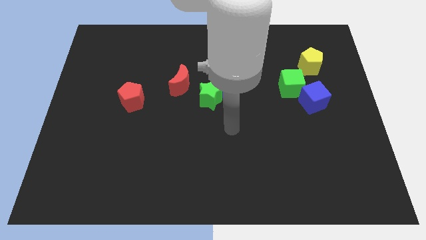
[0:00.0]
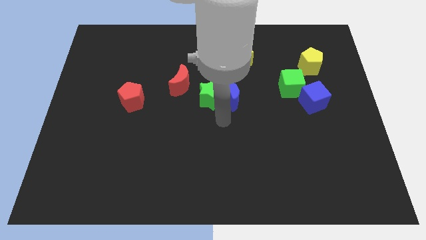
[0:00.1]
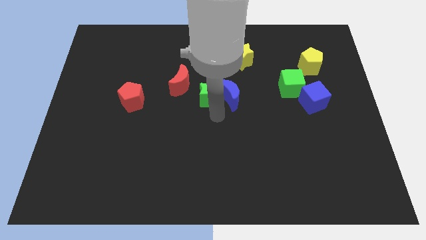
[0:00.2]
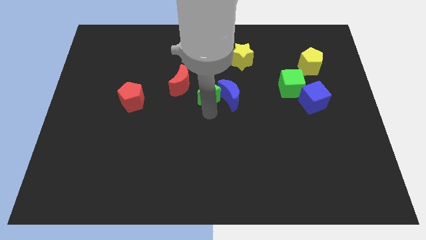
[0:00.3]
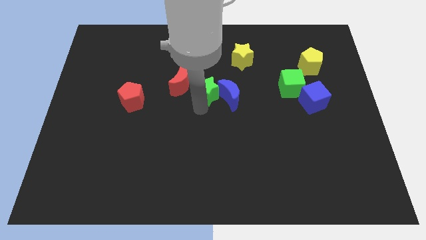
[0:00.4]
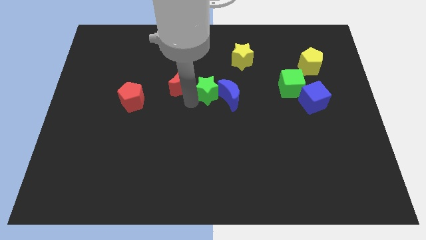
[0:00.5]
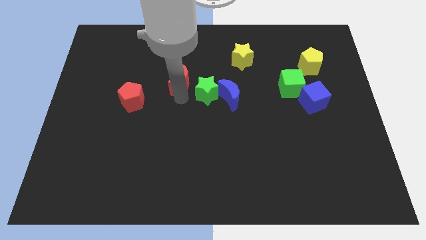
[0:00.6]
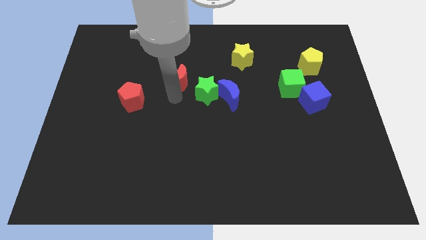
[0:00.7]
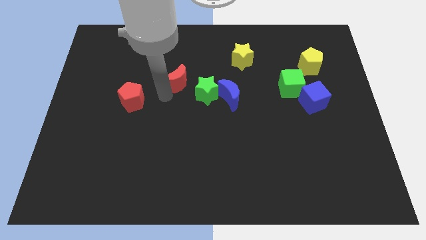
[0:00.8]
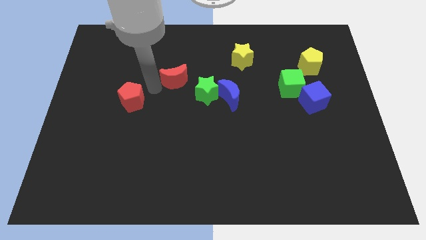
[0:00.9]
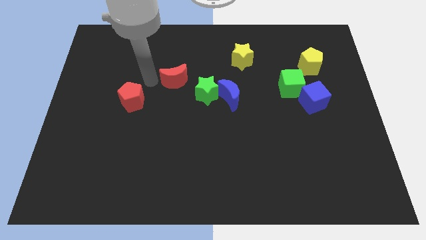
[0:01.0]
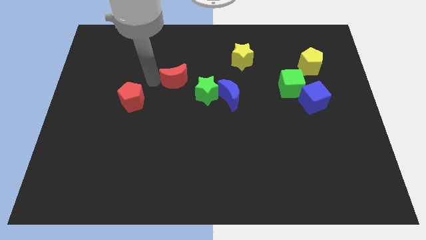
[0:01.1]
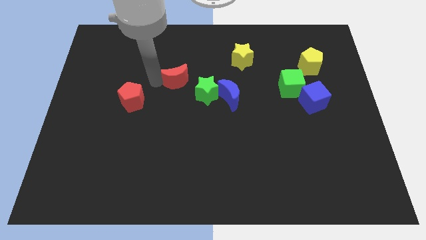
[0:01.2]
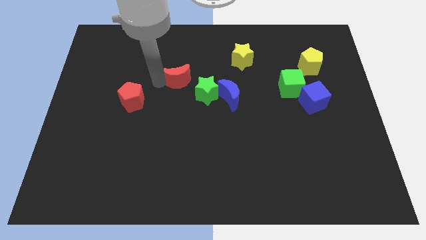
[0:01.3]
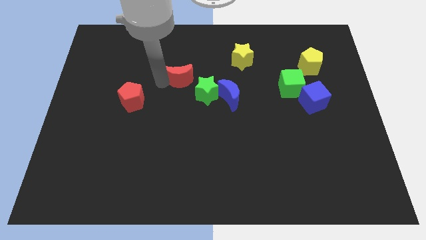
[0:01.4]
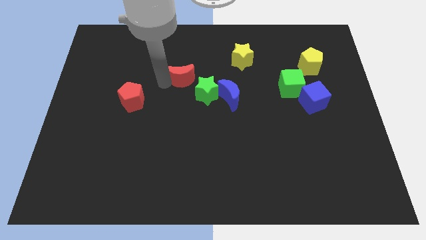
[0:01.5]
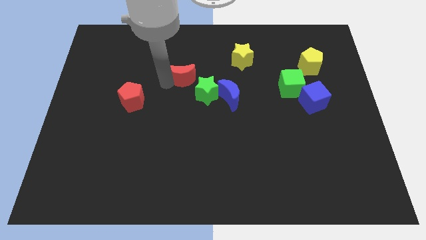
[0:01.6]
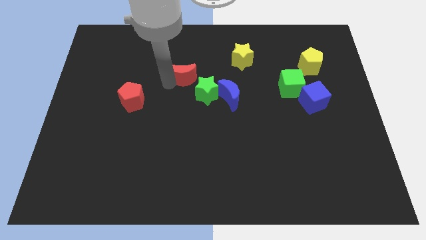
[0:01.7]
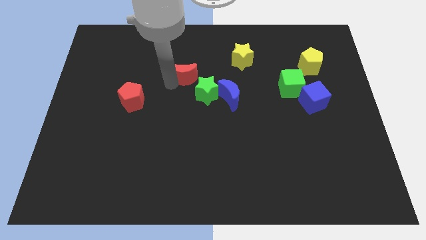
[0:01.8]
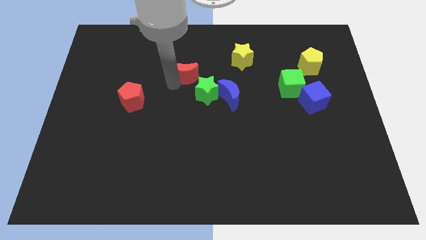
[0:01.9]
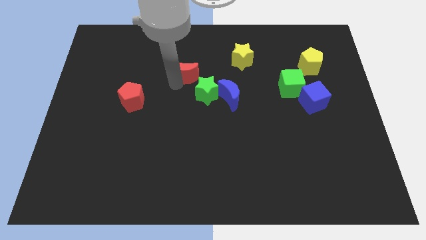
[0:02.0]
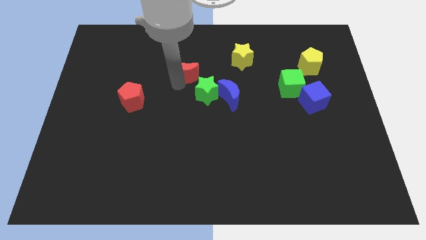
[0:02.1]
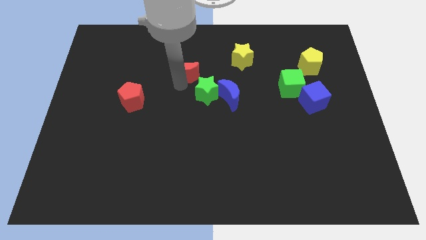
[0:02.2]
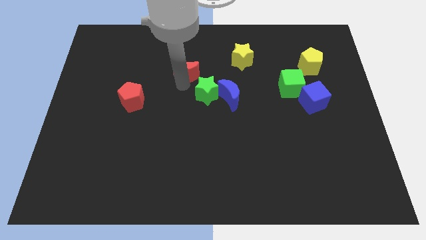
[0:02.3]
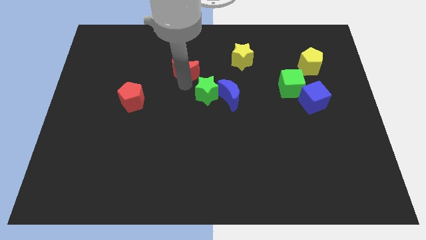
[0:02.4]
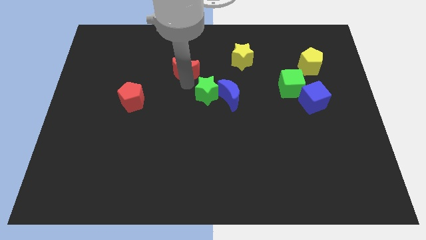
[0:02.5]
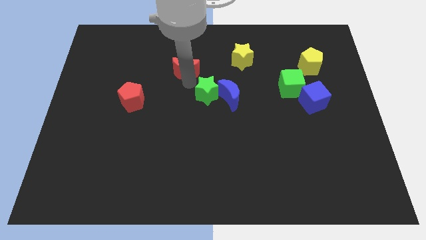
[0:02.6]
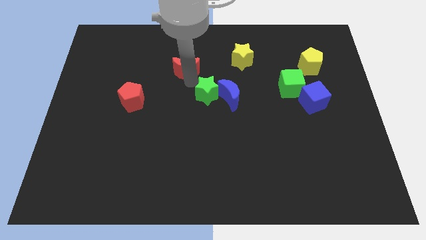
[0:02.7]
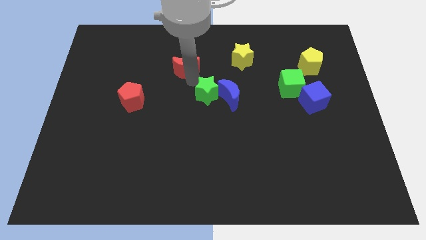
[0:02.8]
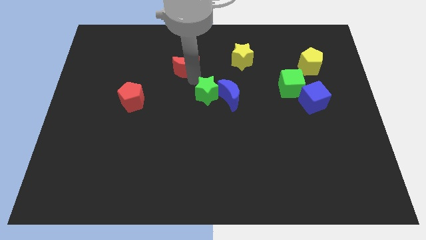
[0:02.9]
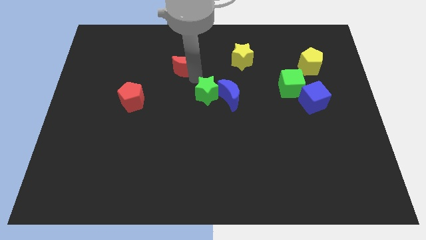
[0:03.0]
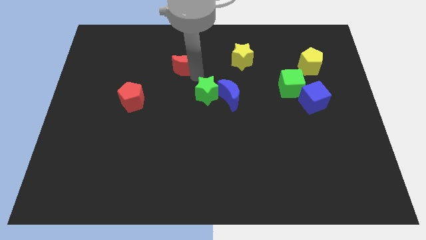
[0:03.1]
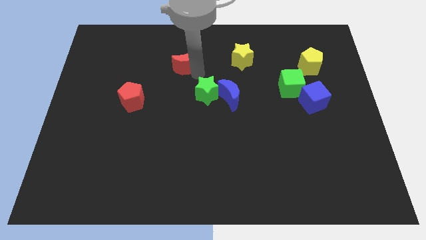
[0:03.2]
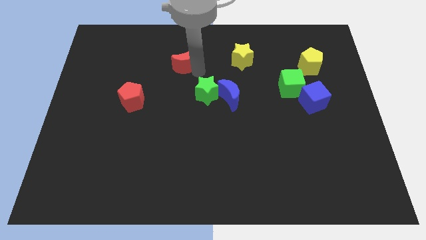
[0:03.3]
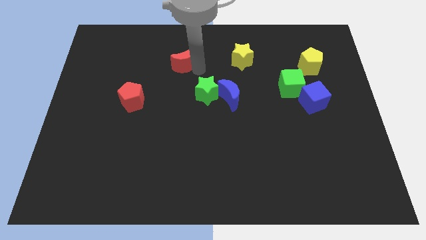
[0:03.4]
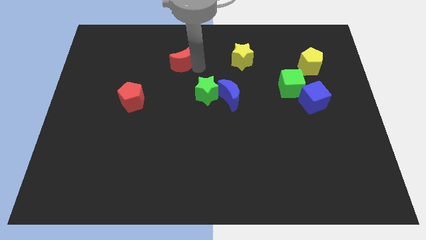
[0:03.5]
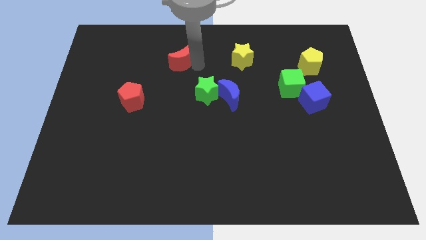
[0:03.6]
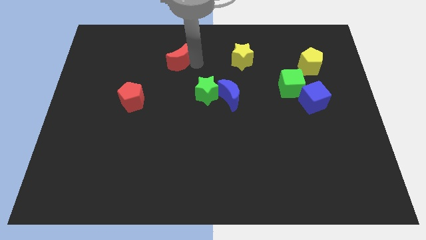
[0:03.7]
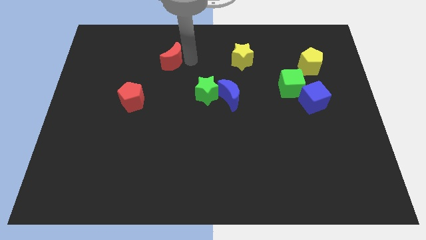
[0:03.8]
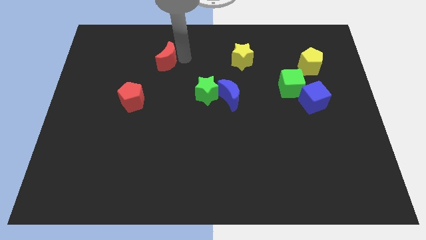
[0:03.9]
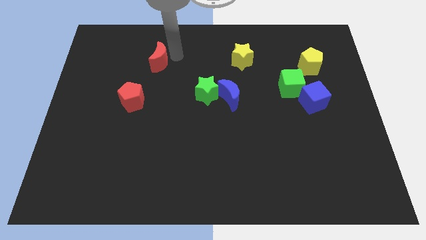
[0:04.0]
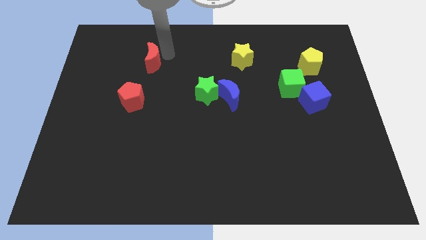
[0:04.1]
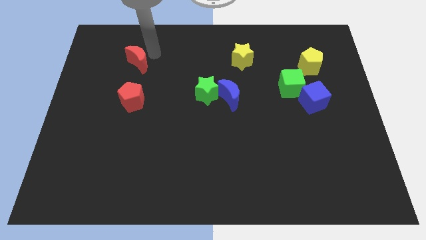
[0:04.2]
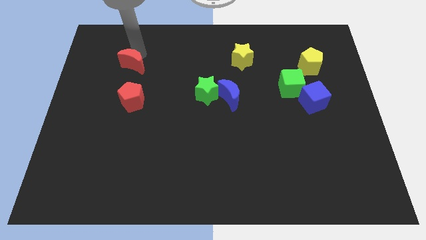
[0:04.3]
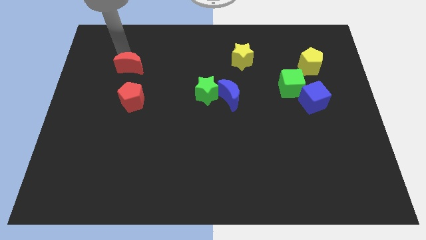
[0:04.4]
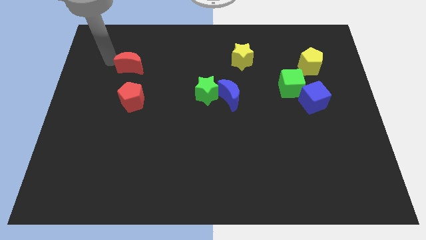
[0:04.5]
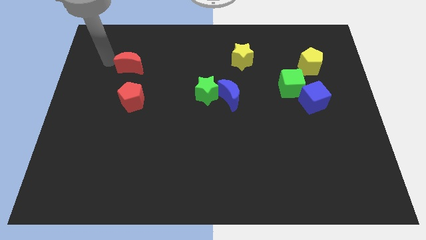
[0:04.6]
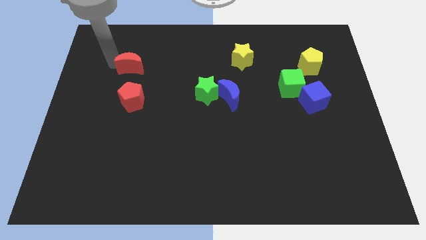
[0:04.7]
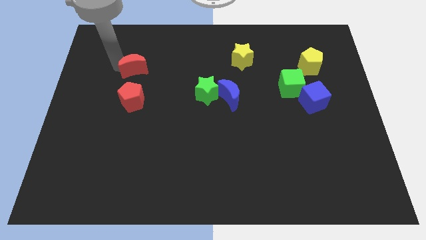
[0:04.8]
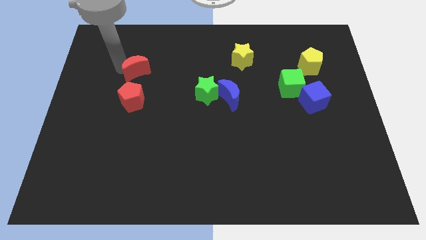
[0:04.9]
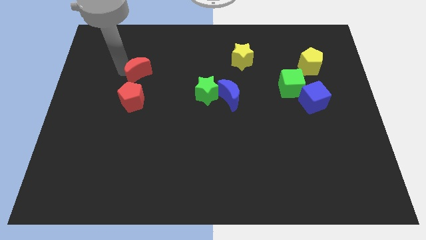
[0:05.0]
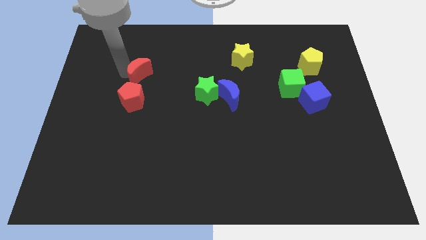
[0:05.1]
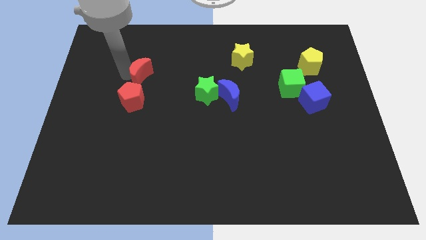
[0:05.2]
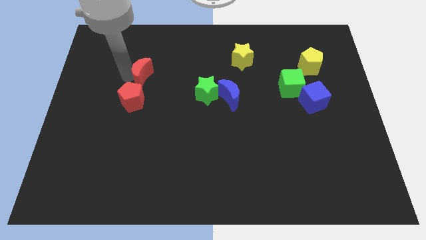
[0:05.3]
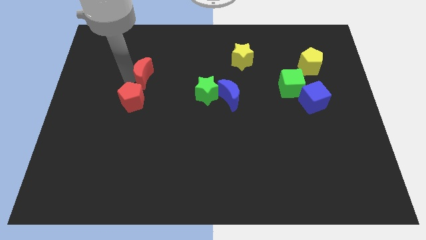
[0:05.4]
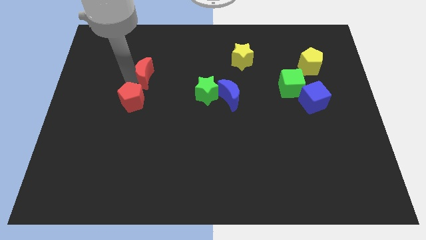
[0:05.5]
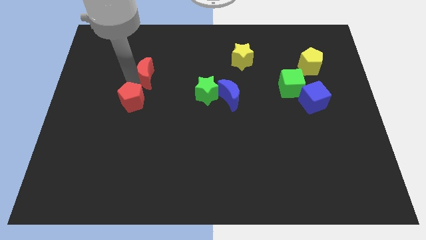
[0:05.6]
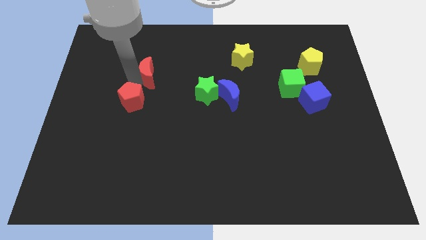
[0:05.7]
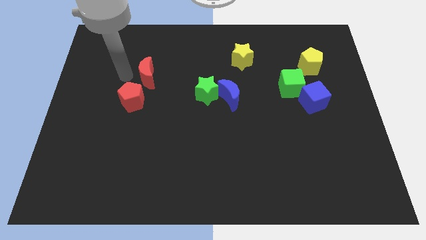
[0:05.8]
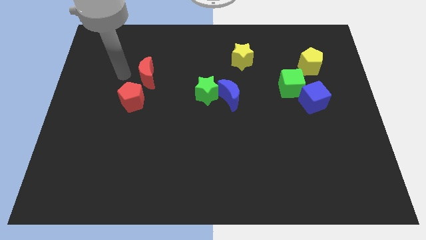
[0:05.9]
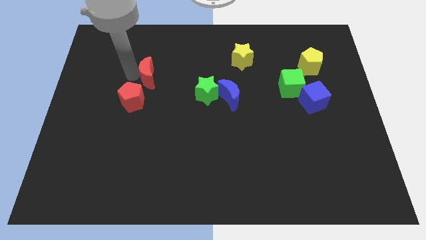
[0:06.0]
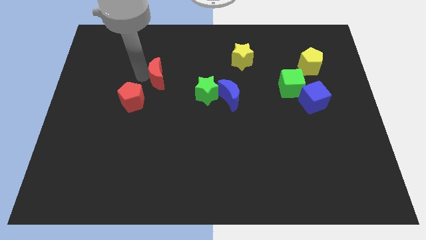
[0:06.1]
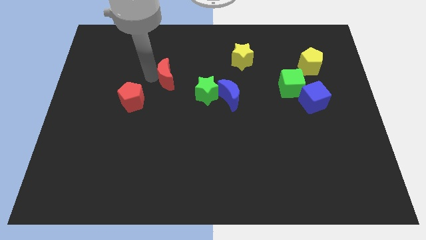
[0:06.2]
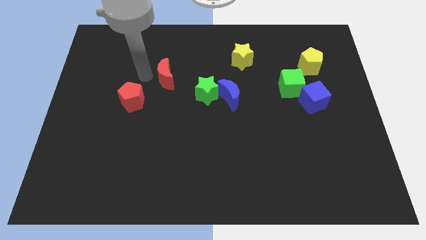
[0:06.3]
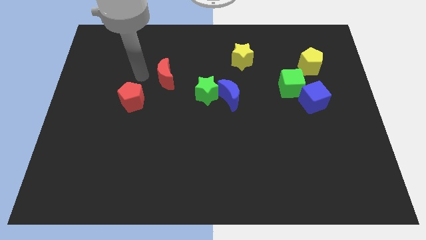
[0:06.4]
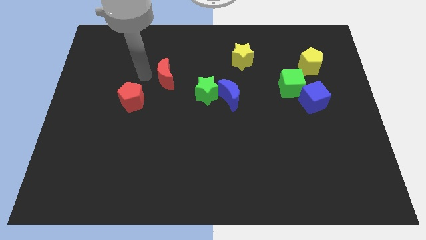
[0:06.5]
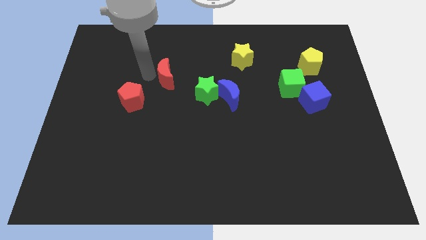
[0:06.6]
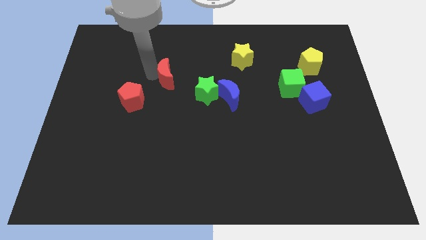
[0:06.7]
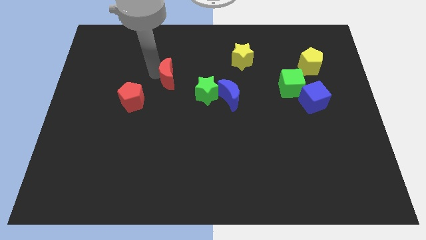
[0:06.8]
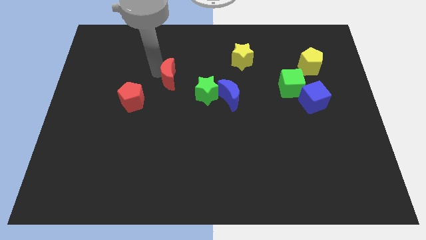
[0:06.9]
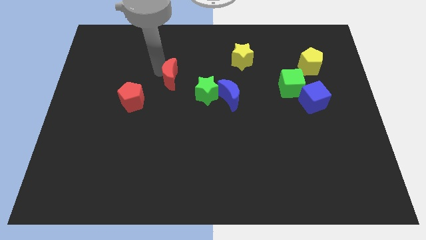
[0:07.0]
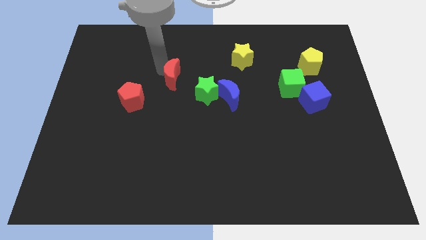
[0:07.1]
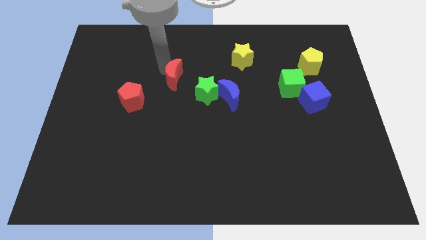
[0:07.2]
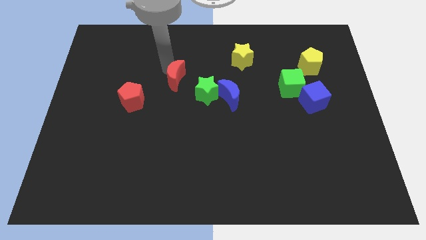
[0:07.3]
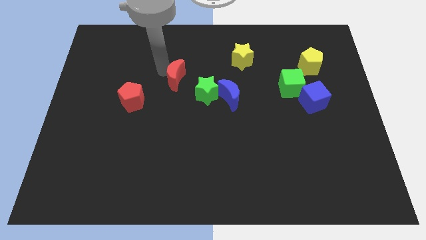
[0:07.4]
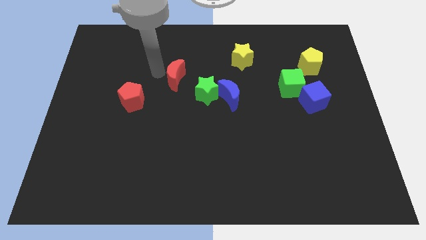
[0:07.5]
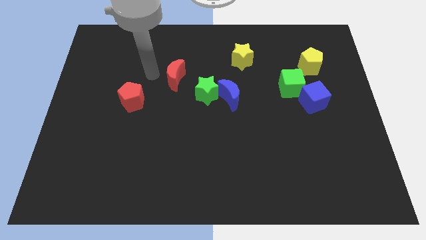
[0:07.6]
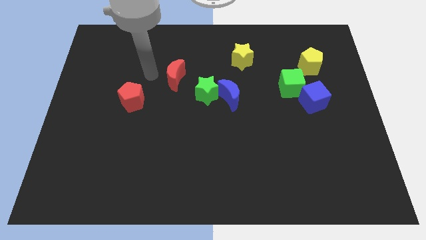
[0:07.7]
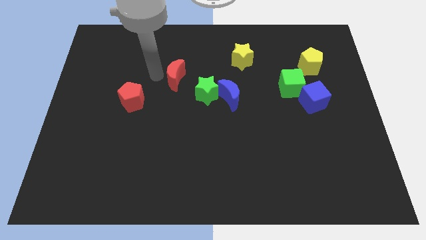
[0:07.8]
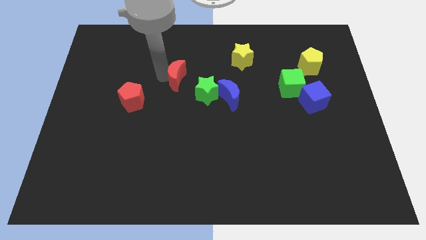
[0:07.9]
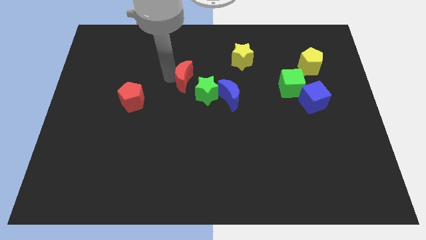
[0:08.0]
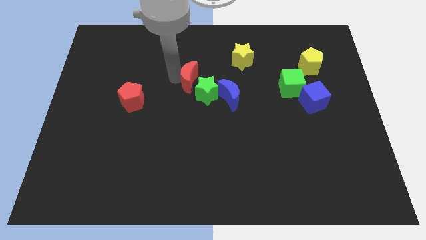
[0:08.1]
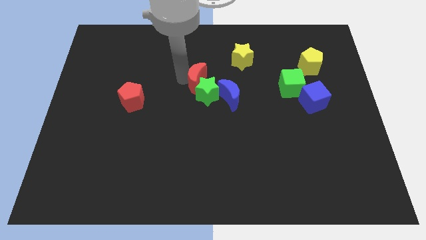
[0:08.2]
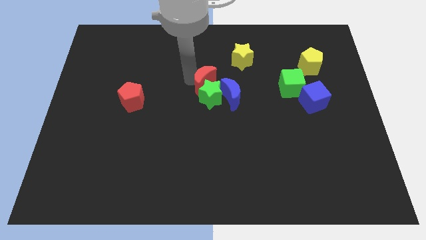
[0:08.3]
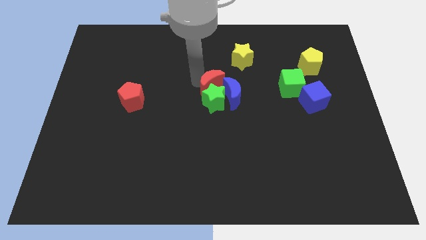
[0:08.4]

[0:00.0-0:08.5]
slide the red moon a little right
